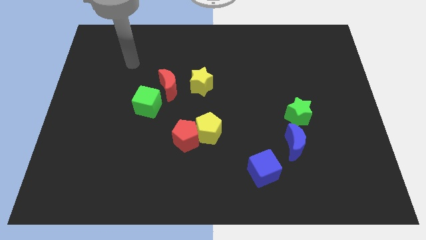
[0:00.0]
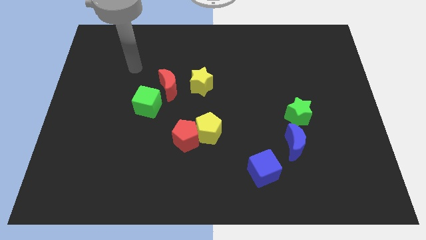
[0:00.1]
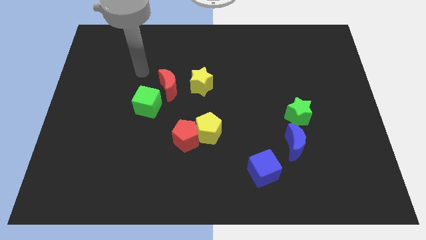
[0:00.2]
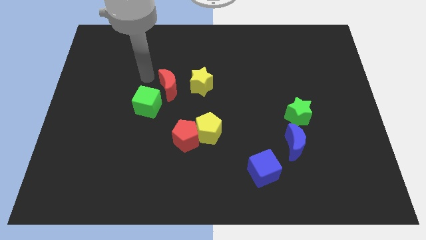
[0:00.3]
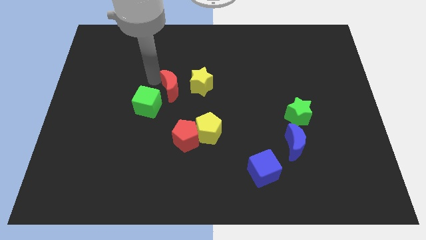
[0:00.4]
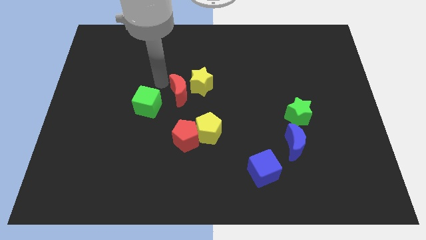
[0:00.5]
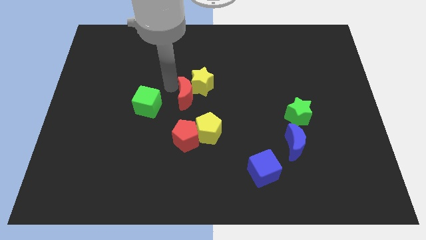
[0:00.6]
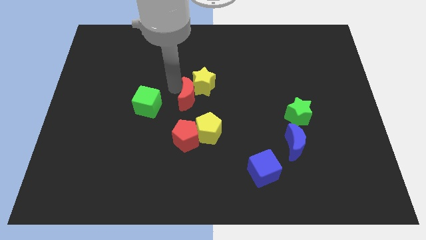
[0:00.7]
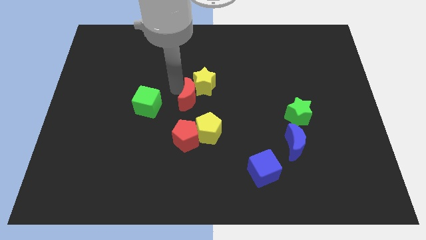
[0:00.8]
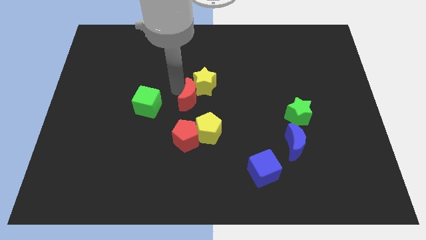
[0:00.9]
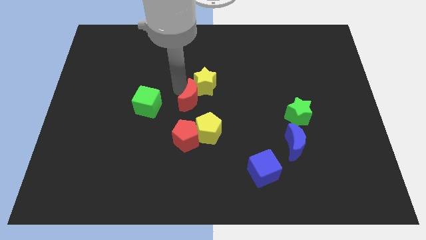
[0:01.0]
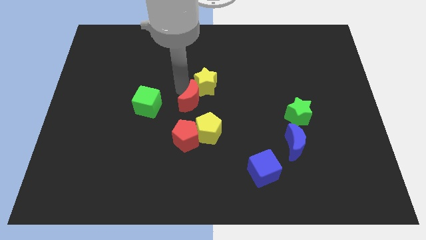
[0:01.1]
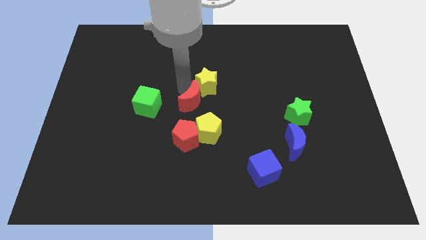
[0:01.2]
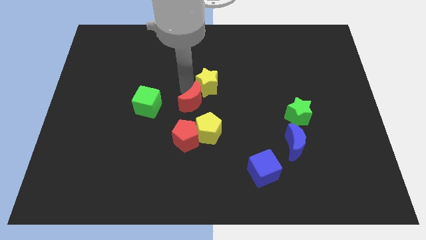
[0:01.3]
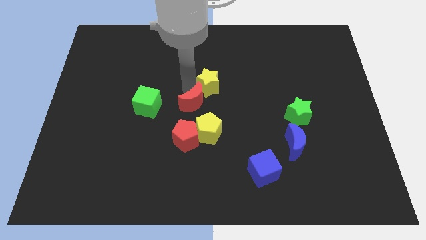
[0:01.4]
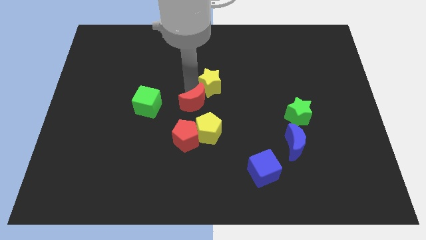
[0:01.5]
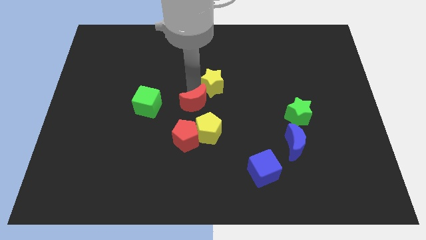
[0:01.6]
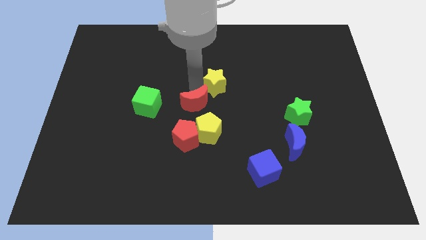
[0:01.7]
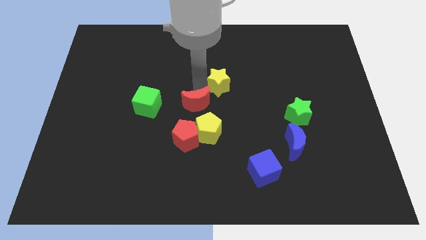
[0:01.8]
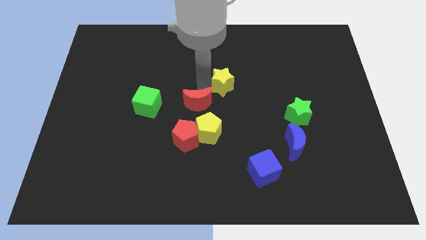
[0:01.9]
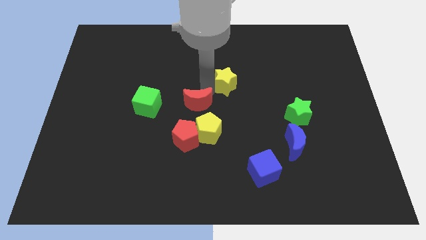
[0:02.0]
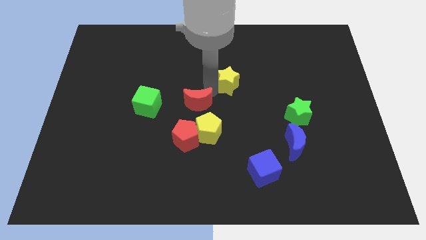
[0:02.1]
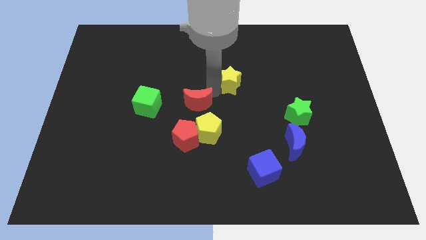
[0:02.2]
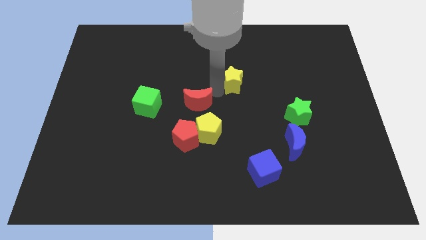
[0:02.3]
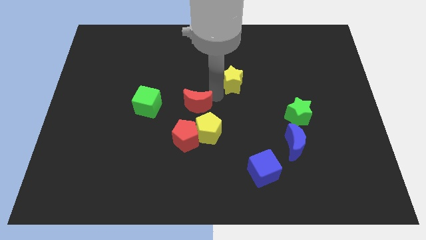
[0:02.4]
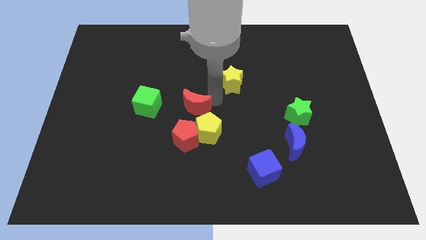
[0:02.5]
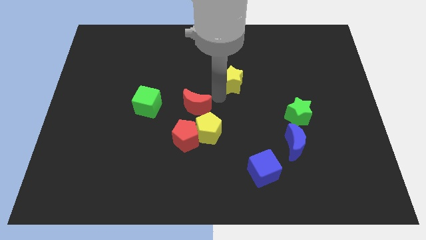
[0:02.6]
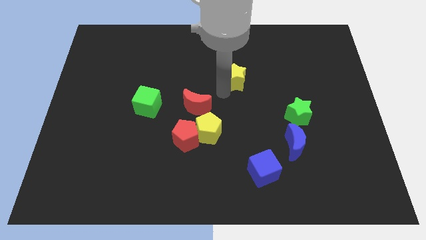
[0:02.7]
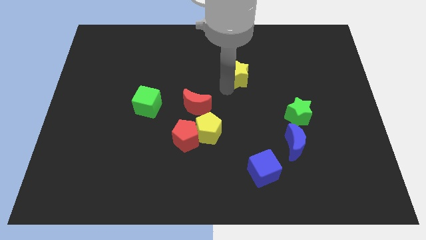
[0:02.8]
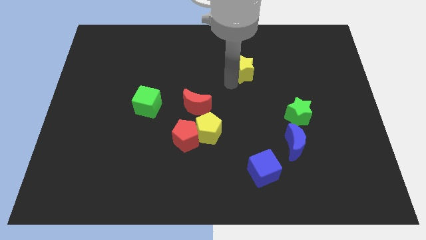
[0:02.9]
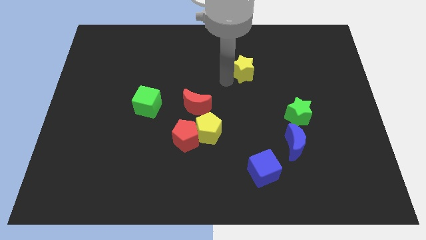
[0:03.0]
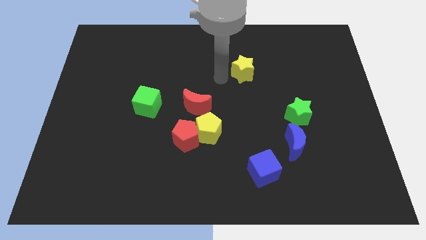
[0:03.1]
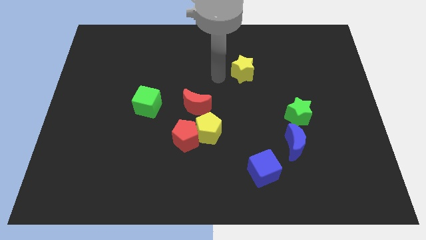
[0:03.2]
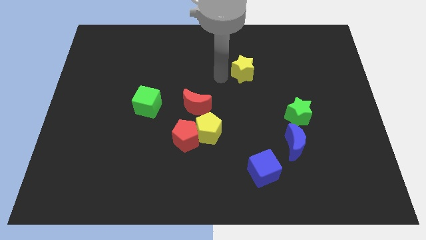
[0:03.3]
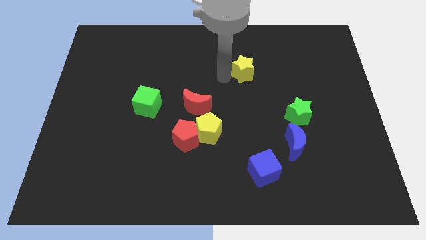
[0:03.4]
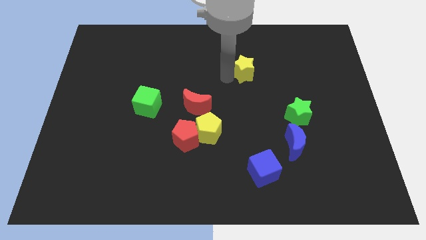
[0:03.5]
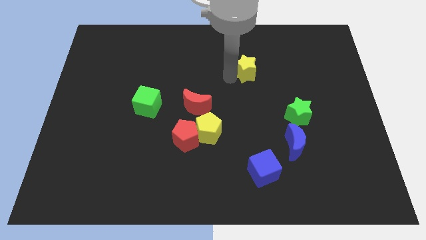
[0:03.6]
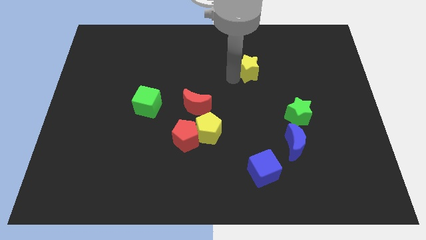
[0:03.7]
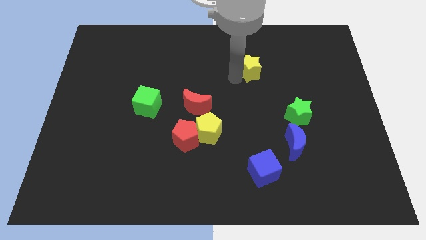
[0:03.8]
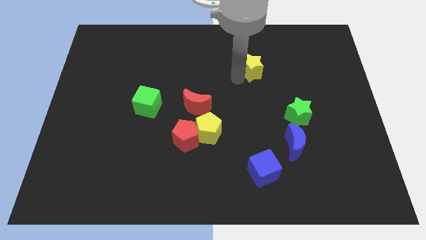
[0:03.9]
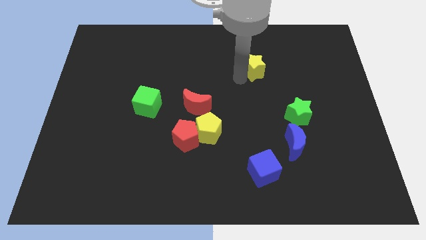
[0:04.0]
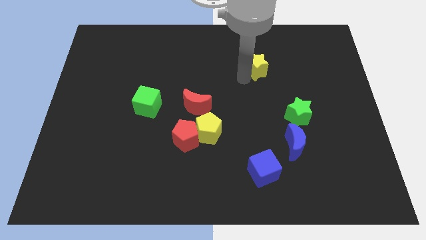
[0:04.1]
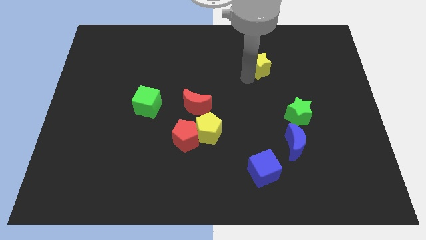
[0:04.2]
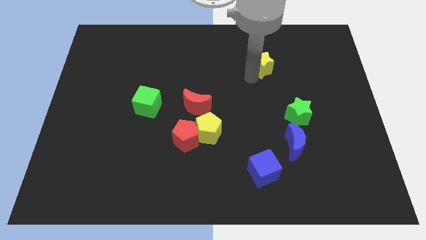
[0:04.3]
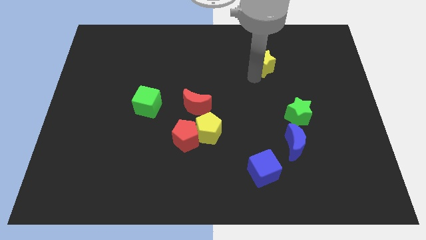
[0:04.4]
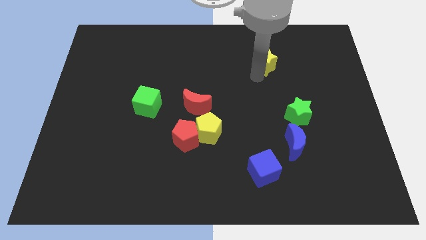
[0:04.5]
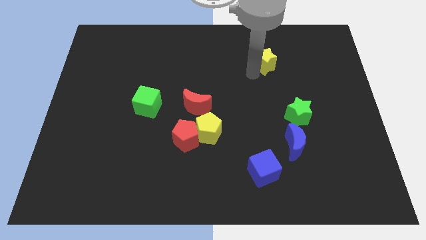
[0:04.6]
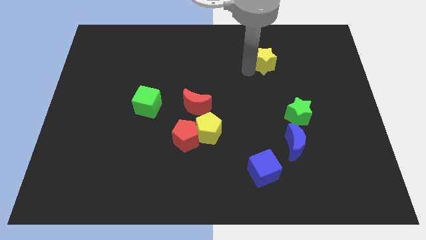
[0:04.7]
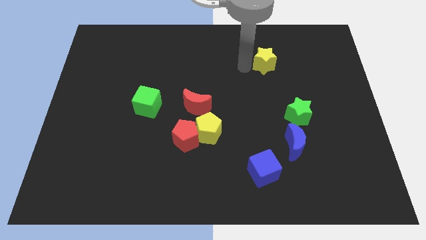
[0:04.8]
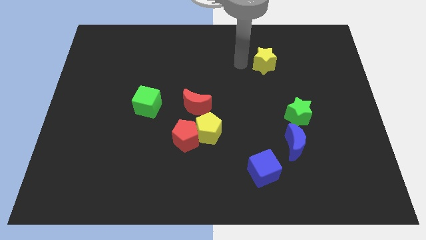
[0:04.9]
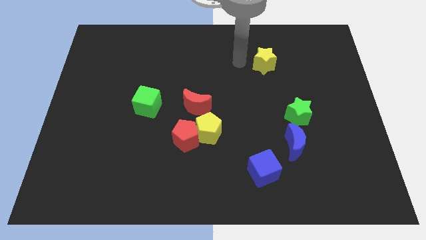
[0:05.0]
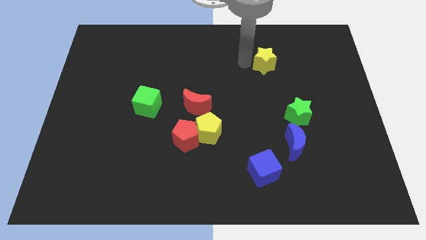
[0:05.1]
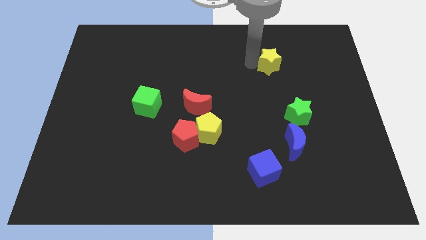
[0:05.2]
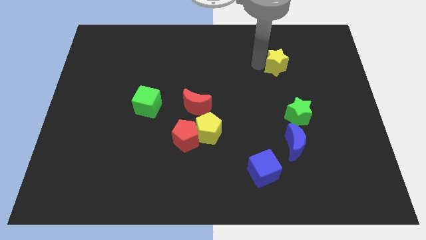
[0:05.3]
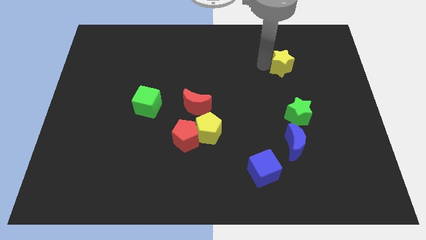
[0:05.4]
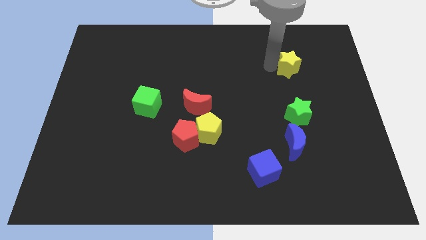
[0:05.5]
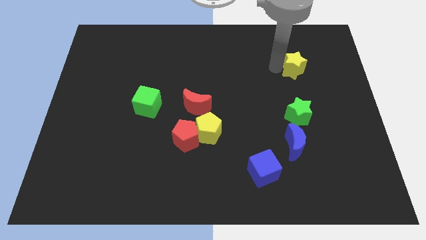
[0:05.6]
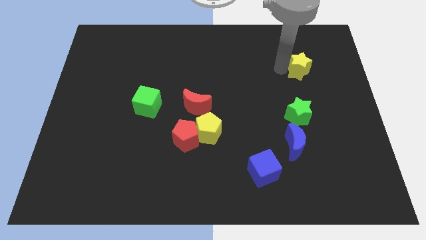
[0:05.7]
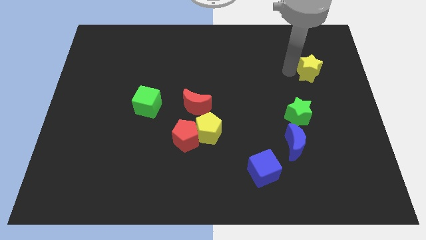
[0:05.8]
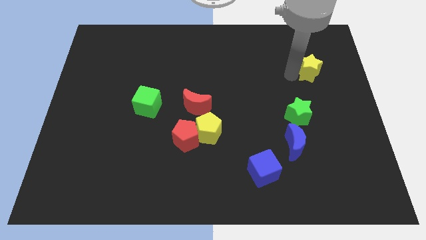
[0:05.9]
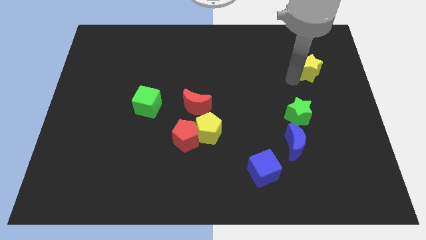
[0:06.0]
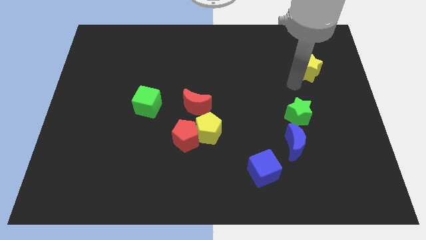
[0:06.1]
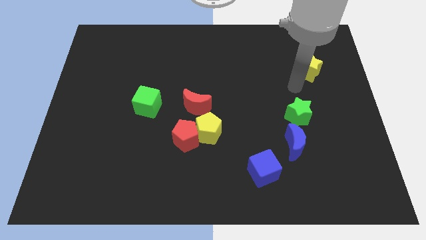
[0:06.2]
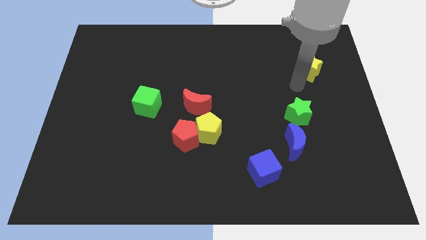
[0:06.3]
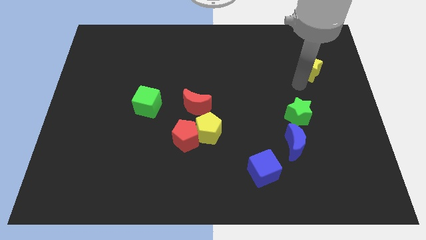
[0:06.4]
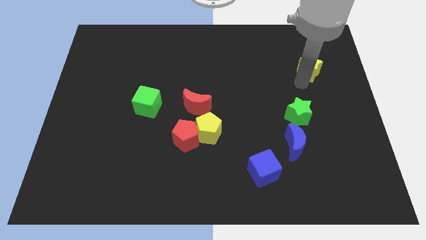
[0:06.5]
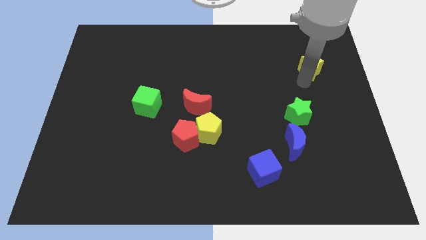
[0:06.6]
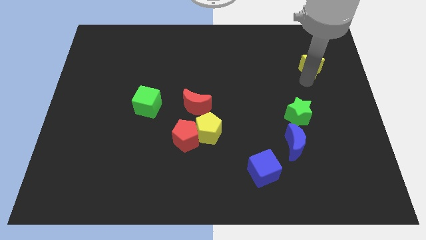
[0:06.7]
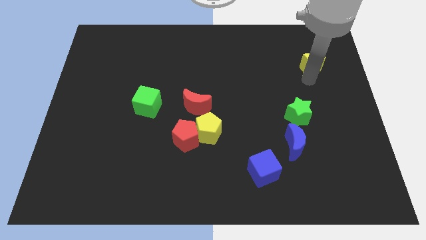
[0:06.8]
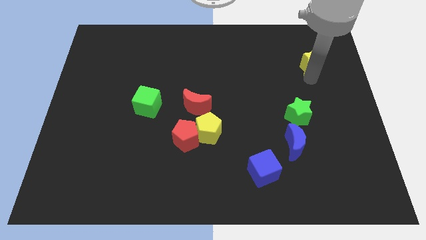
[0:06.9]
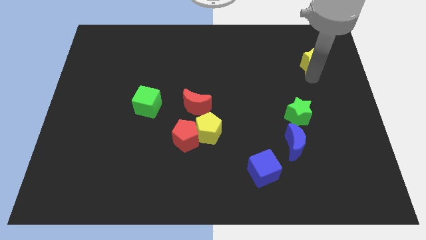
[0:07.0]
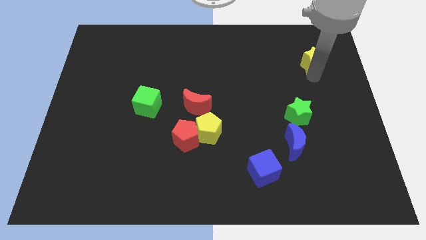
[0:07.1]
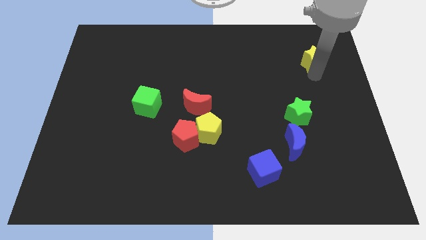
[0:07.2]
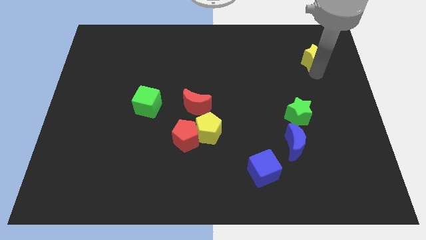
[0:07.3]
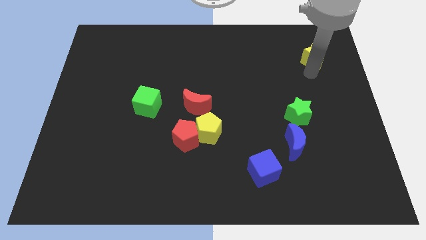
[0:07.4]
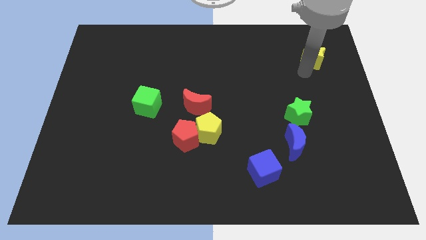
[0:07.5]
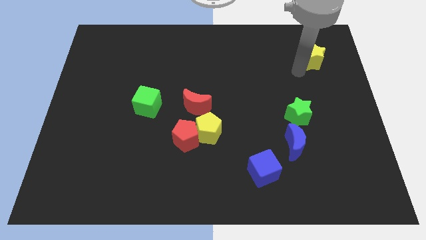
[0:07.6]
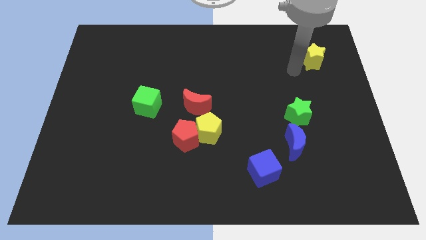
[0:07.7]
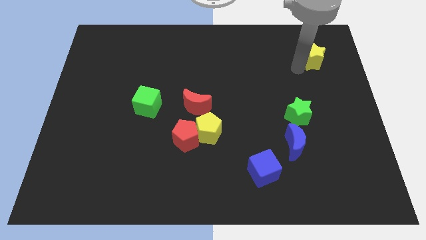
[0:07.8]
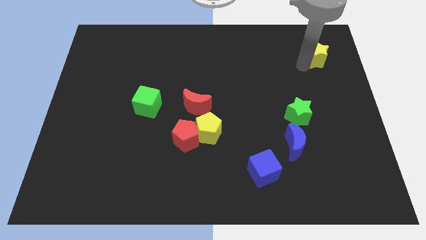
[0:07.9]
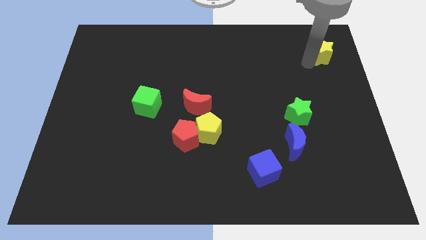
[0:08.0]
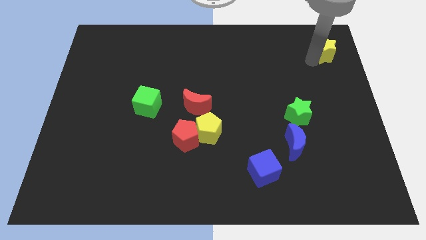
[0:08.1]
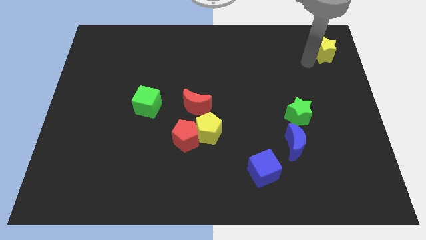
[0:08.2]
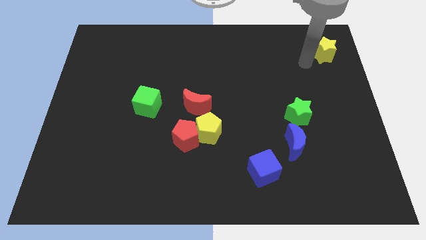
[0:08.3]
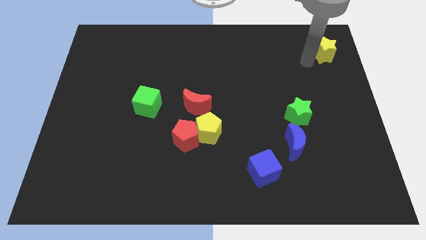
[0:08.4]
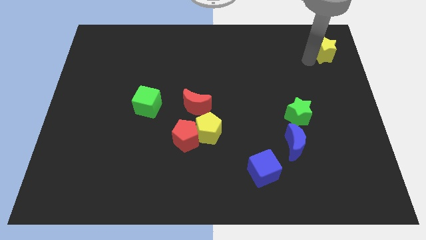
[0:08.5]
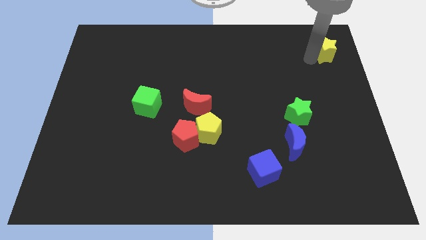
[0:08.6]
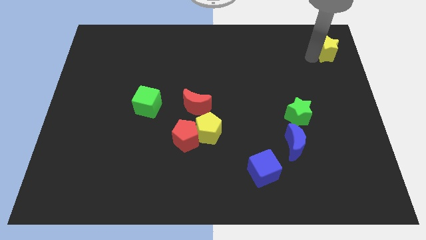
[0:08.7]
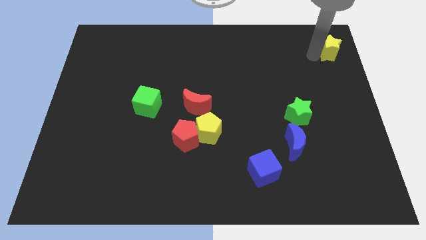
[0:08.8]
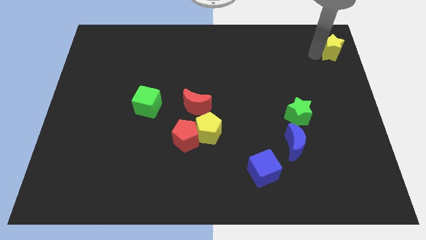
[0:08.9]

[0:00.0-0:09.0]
push the yellow star to the top right of the board
